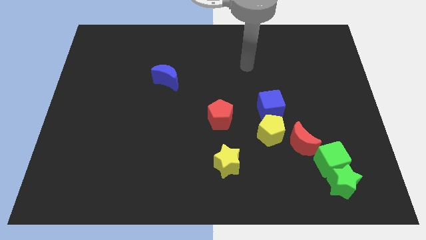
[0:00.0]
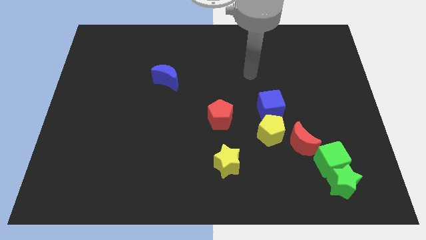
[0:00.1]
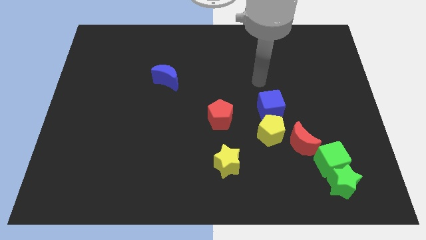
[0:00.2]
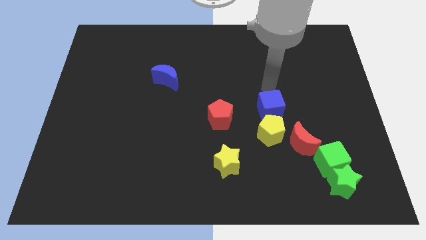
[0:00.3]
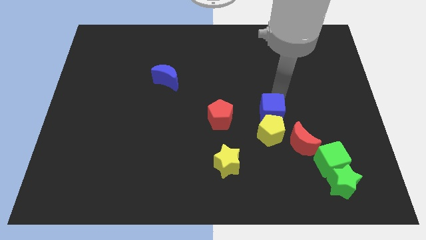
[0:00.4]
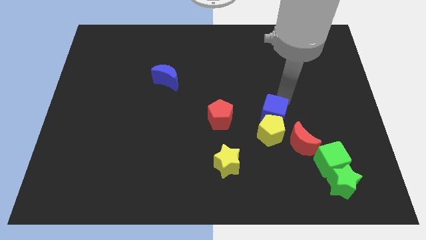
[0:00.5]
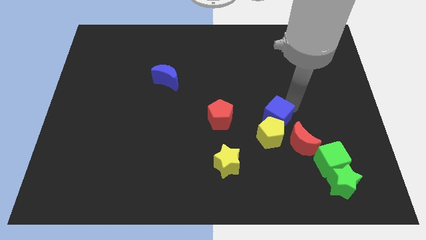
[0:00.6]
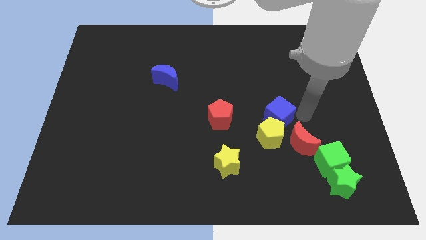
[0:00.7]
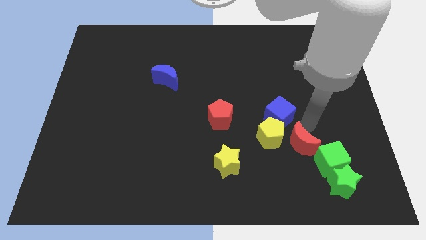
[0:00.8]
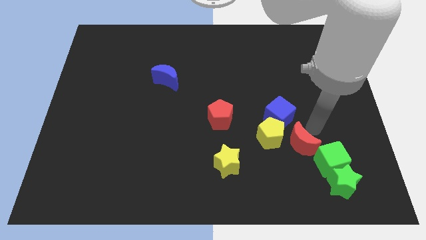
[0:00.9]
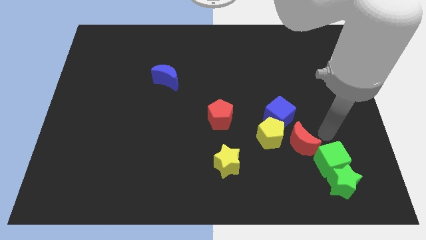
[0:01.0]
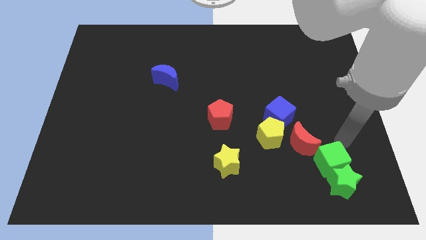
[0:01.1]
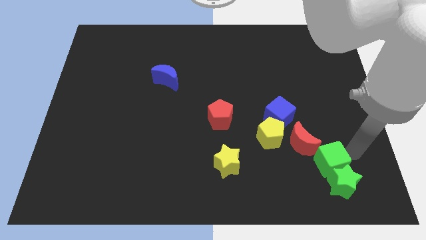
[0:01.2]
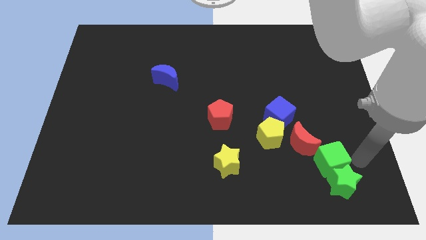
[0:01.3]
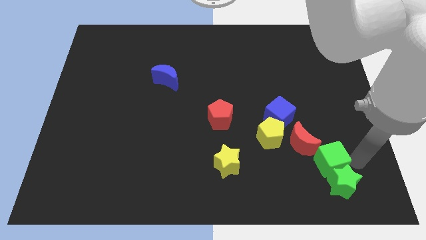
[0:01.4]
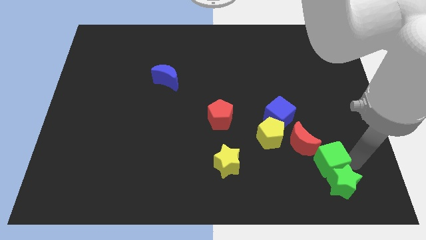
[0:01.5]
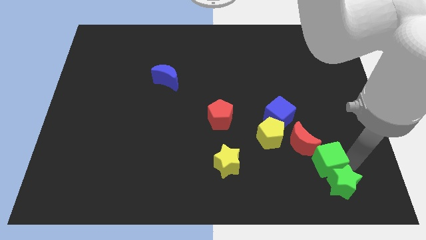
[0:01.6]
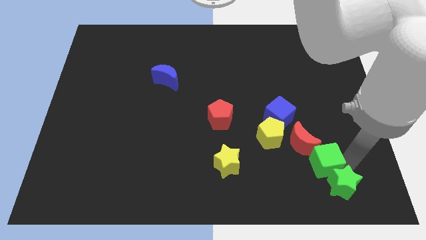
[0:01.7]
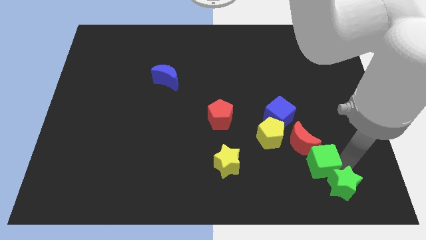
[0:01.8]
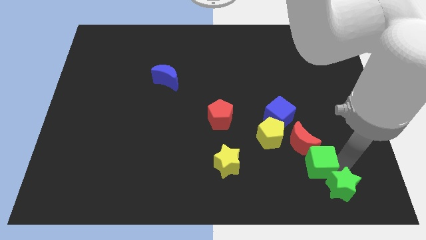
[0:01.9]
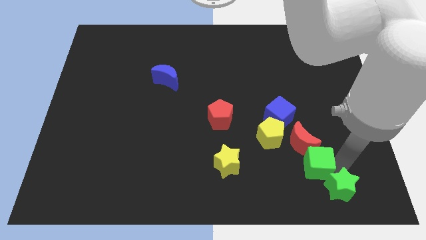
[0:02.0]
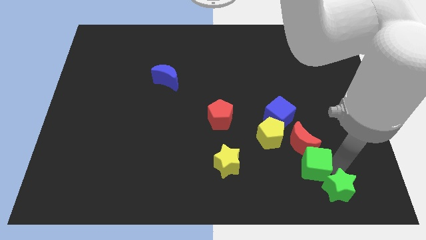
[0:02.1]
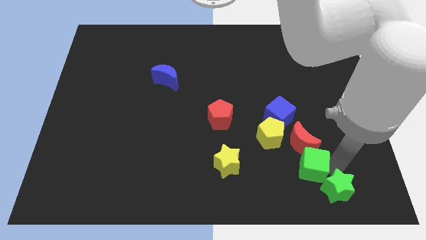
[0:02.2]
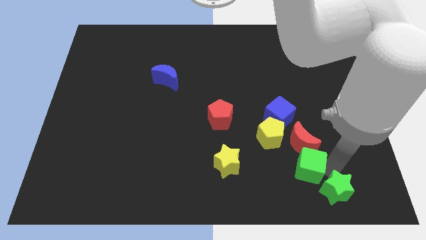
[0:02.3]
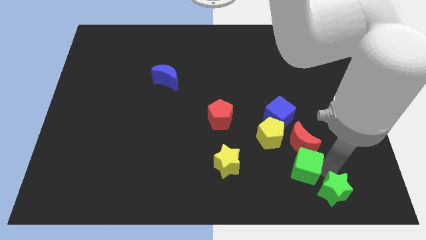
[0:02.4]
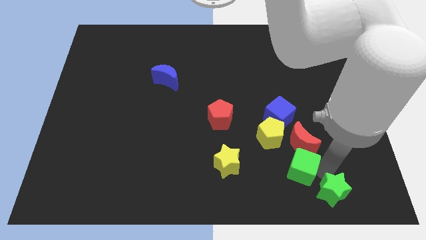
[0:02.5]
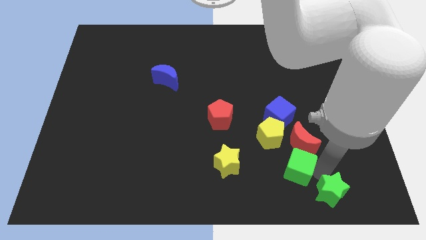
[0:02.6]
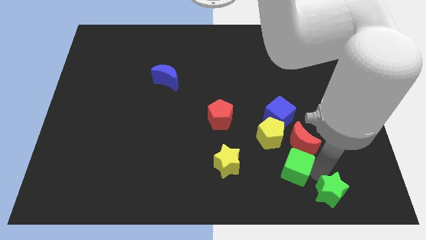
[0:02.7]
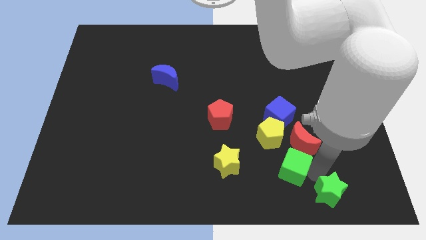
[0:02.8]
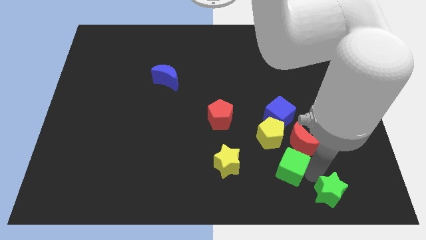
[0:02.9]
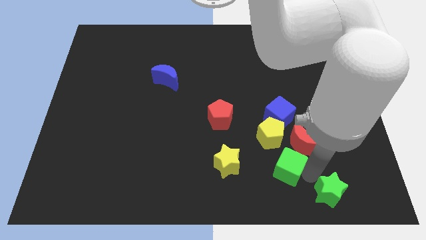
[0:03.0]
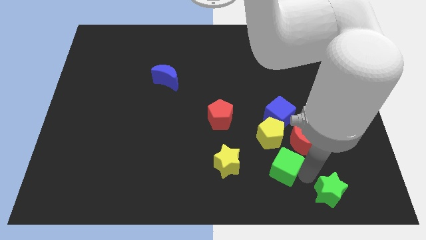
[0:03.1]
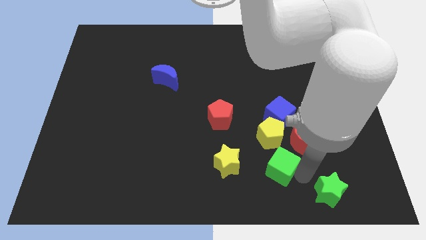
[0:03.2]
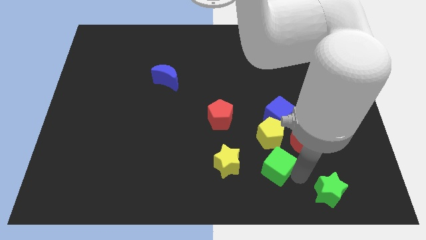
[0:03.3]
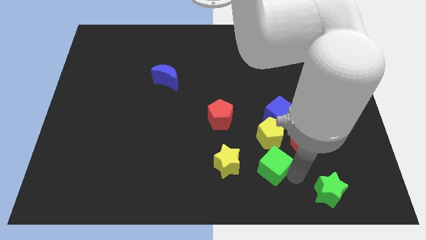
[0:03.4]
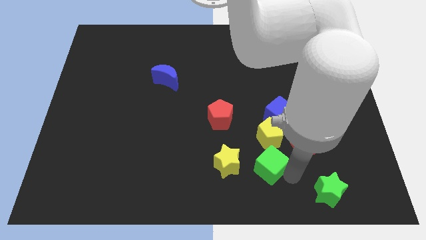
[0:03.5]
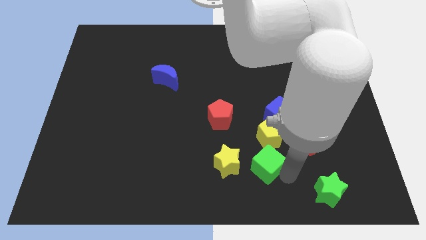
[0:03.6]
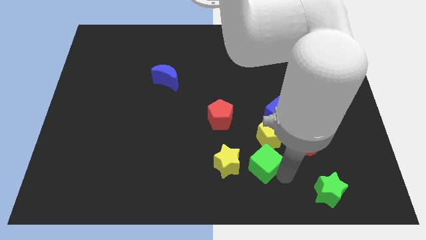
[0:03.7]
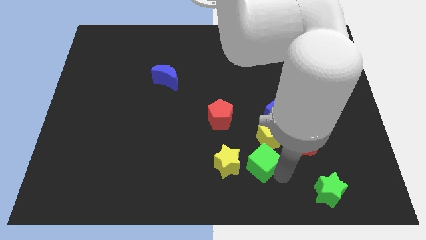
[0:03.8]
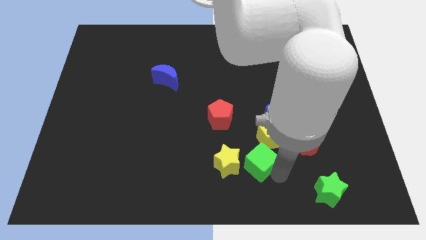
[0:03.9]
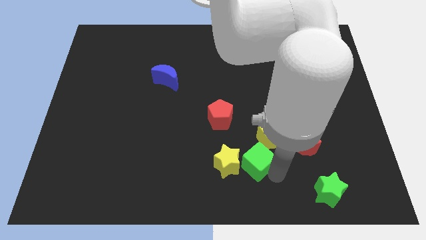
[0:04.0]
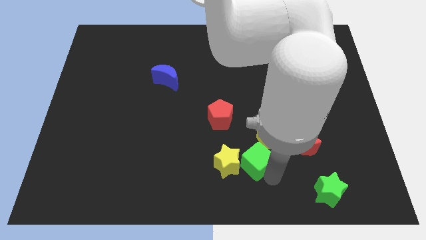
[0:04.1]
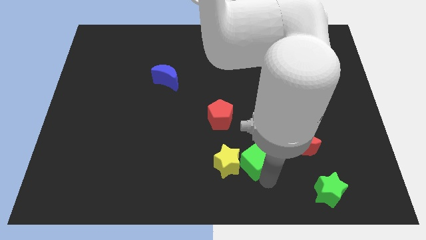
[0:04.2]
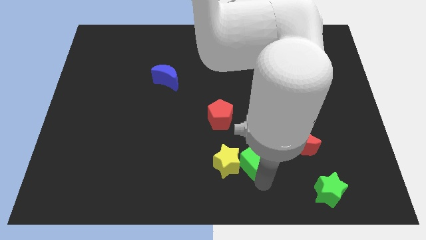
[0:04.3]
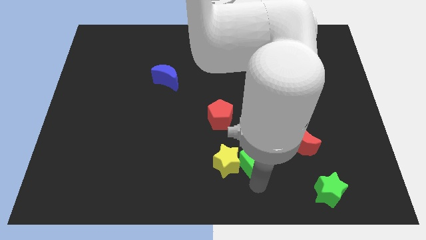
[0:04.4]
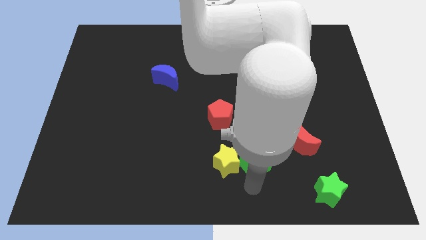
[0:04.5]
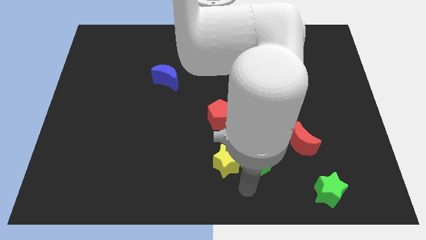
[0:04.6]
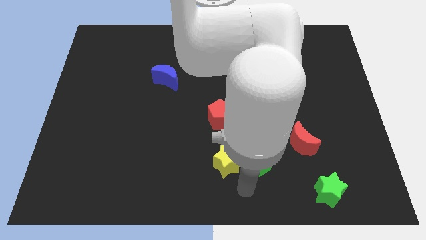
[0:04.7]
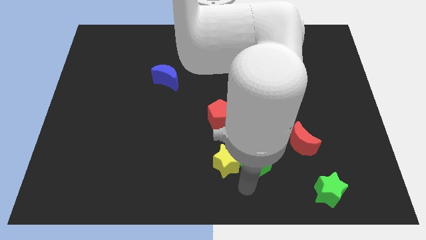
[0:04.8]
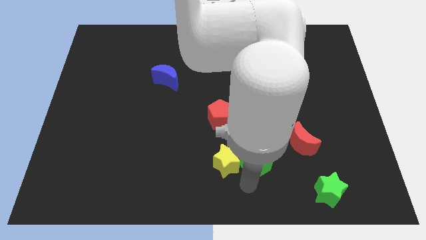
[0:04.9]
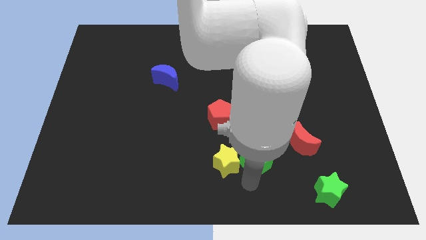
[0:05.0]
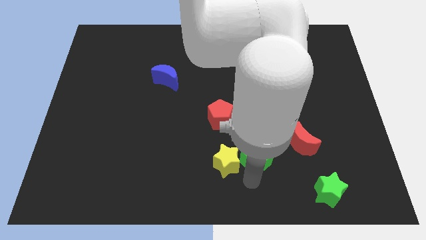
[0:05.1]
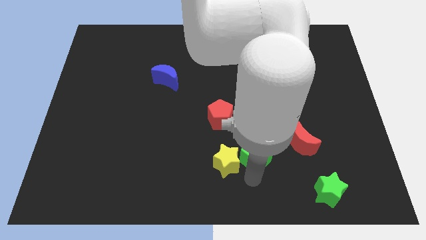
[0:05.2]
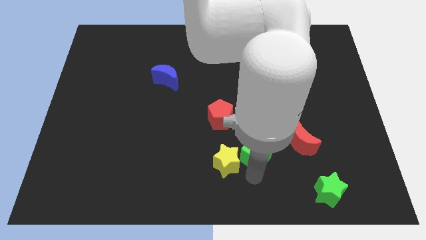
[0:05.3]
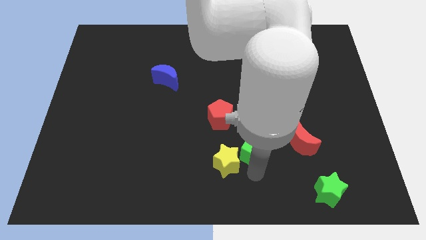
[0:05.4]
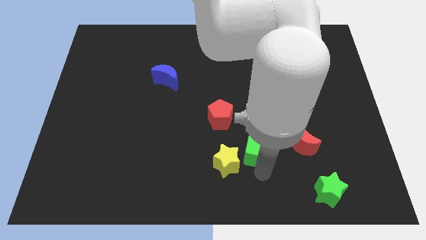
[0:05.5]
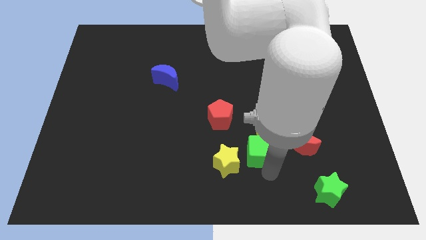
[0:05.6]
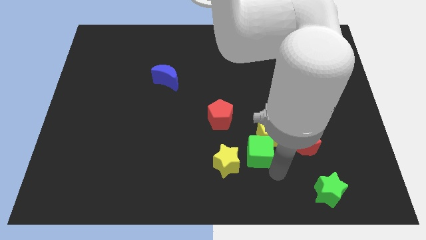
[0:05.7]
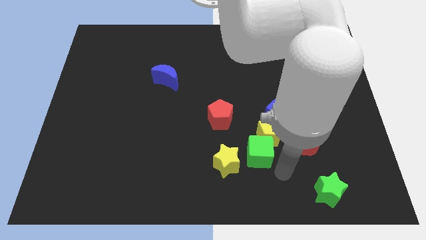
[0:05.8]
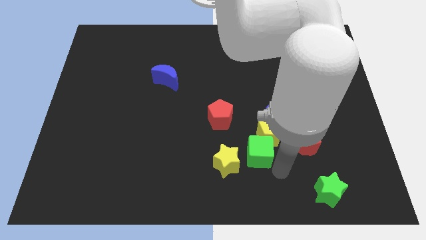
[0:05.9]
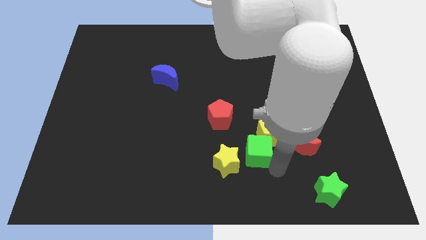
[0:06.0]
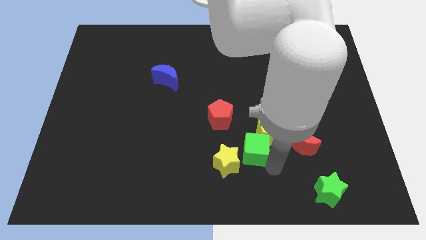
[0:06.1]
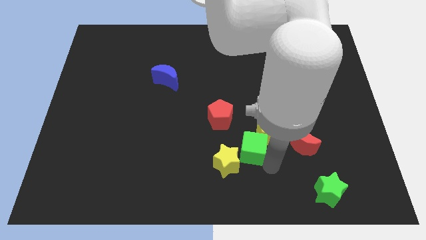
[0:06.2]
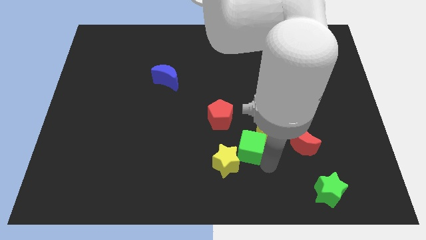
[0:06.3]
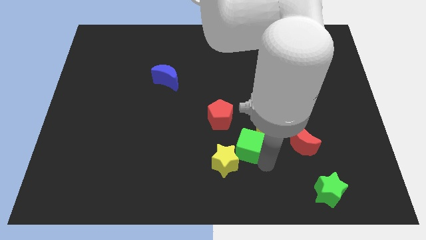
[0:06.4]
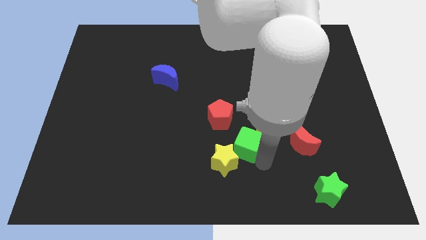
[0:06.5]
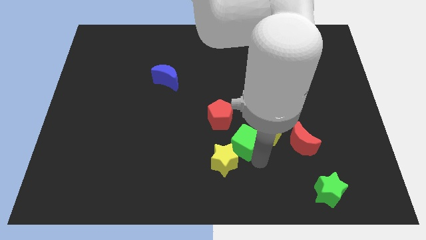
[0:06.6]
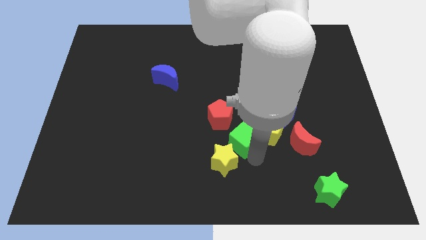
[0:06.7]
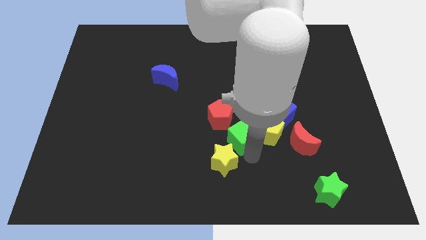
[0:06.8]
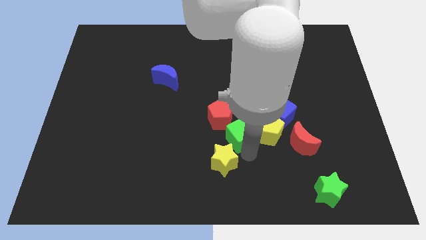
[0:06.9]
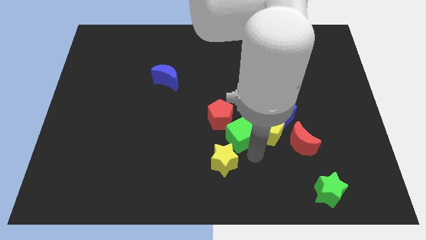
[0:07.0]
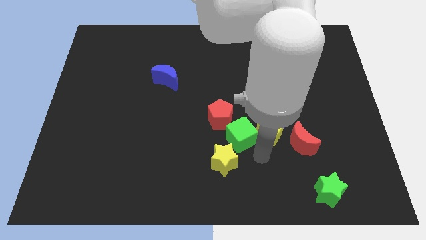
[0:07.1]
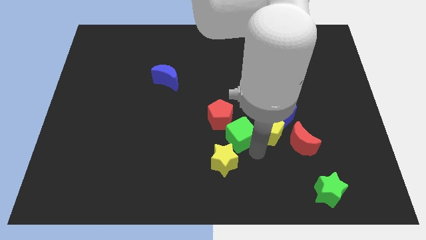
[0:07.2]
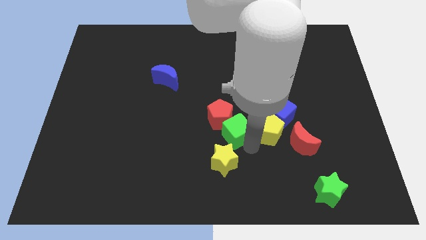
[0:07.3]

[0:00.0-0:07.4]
slide the green cube to the red pentagon
